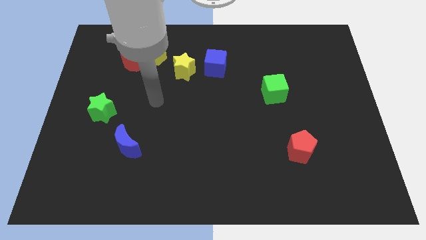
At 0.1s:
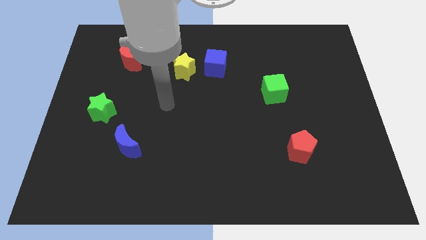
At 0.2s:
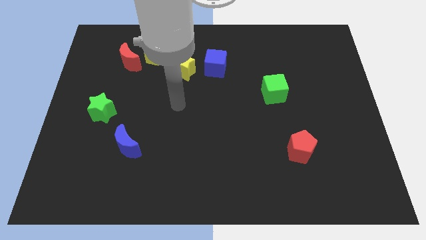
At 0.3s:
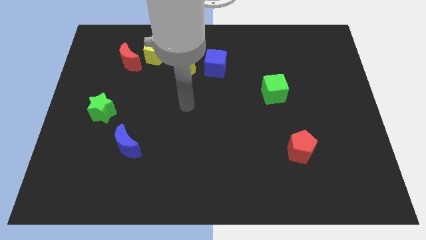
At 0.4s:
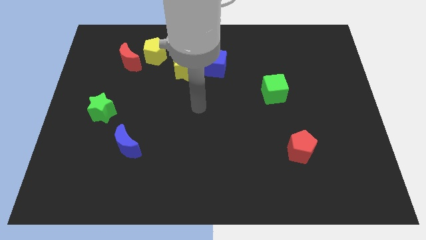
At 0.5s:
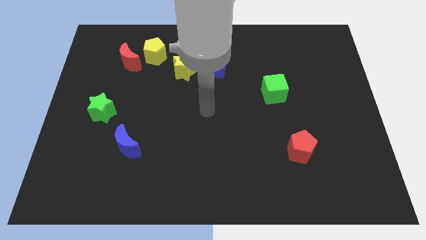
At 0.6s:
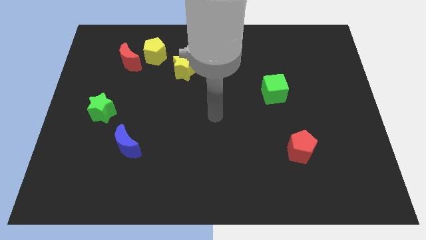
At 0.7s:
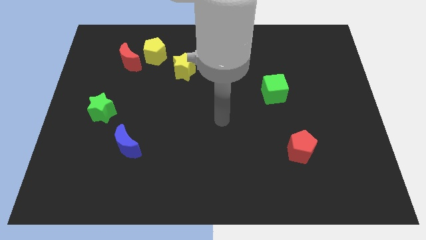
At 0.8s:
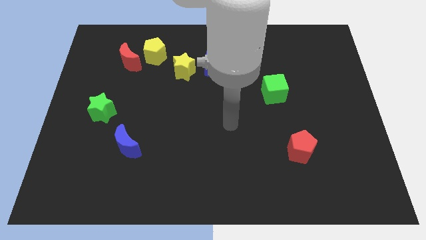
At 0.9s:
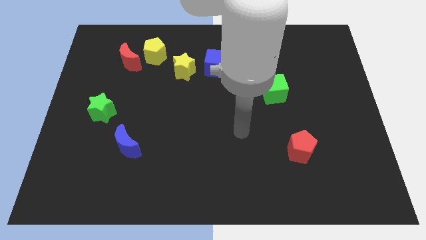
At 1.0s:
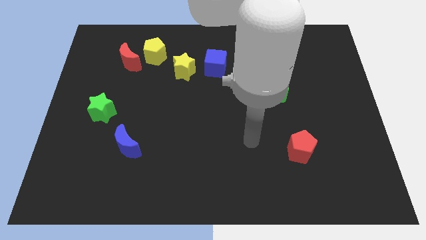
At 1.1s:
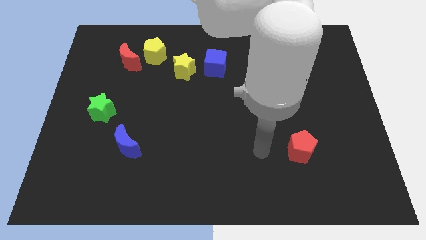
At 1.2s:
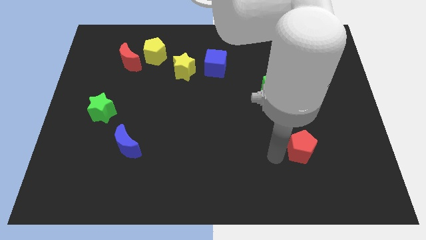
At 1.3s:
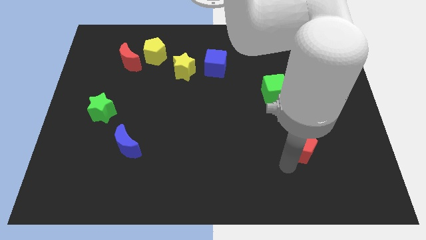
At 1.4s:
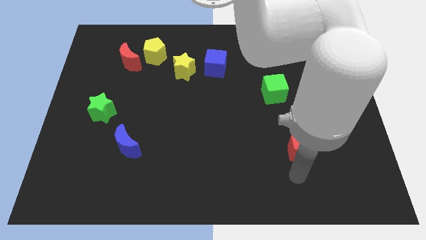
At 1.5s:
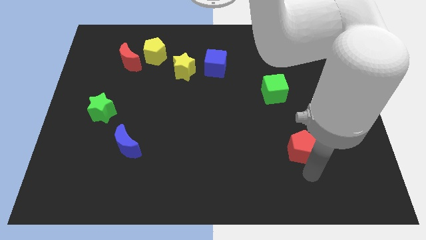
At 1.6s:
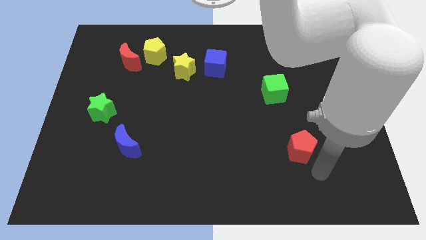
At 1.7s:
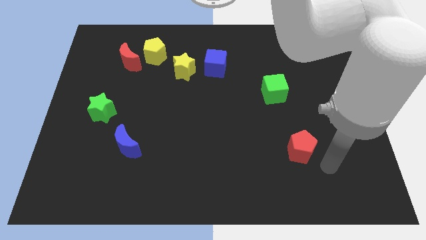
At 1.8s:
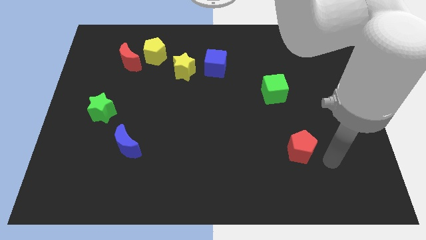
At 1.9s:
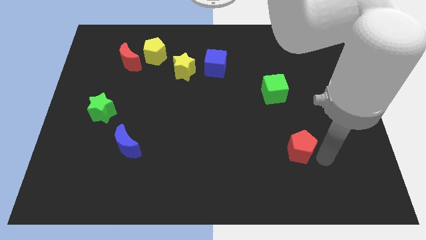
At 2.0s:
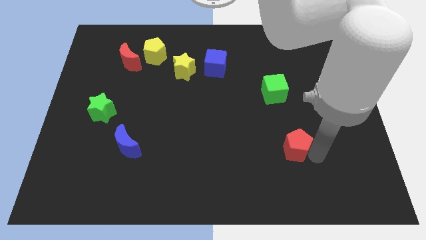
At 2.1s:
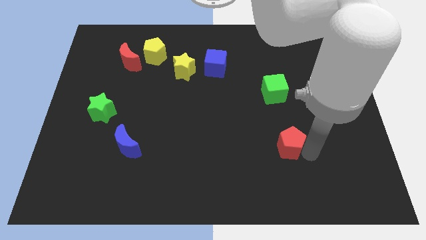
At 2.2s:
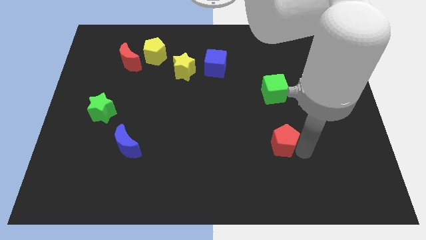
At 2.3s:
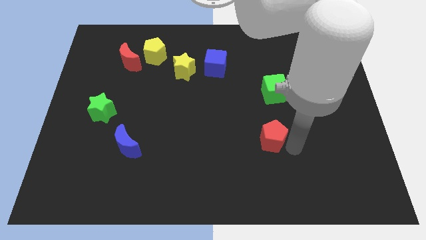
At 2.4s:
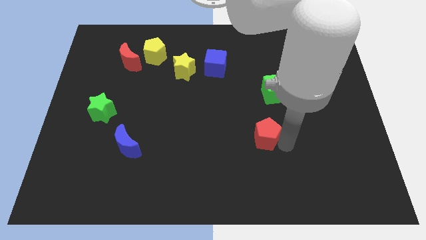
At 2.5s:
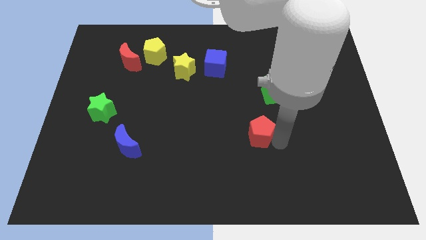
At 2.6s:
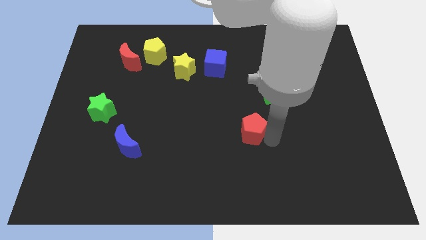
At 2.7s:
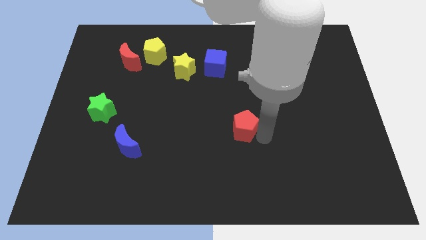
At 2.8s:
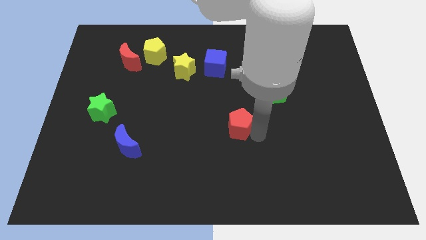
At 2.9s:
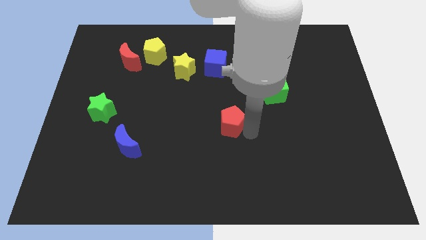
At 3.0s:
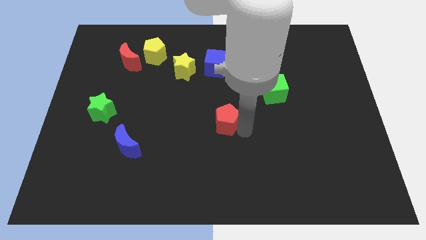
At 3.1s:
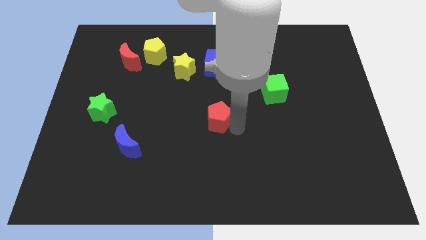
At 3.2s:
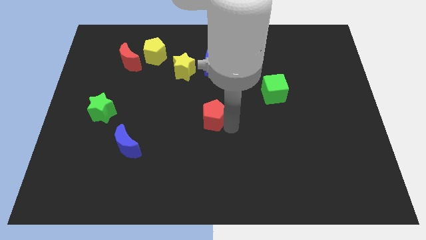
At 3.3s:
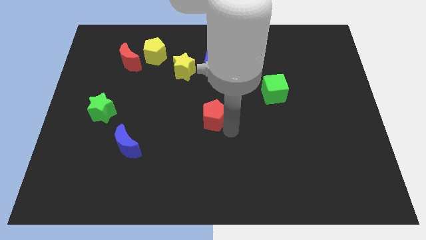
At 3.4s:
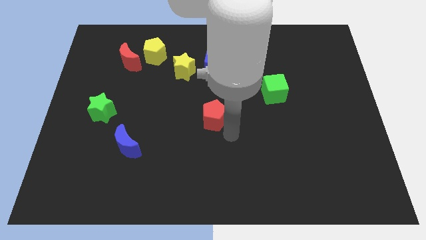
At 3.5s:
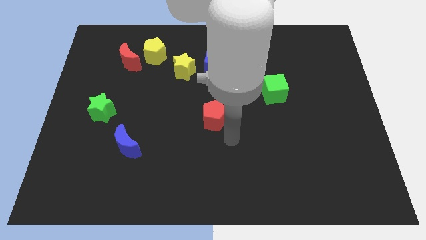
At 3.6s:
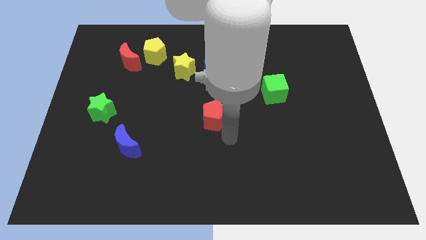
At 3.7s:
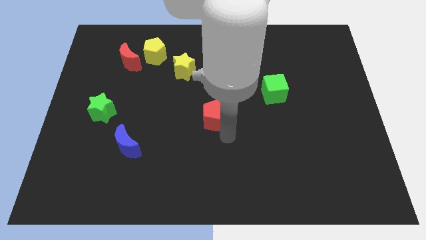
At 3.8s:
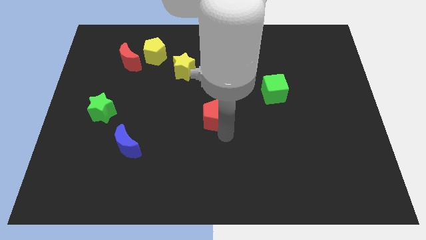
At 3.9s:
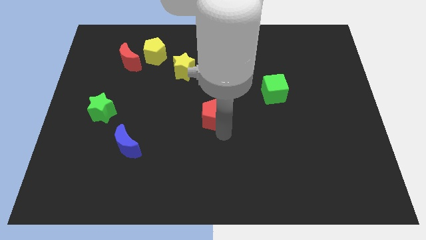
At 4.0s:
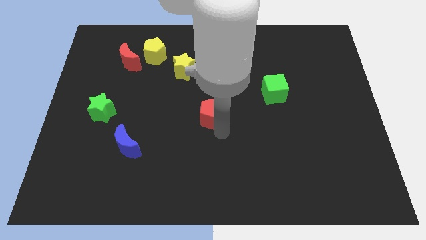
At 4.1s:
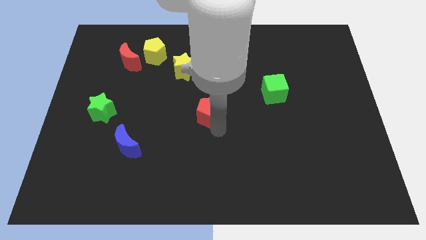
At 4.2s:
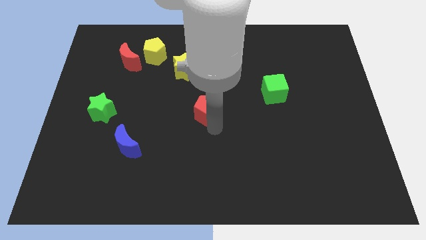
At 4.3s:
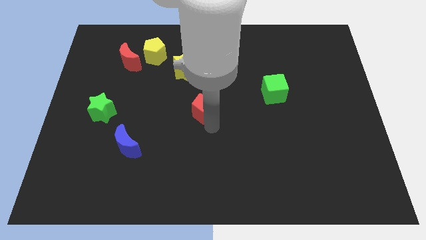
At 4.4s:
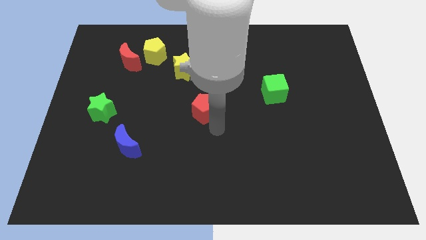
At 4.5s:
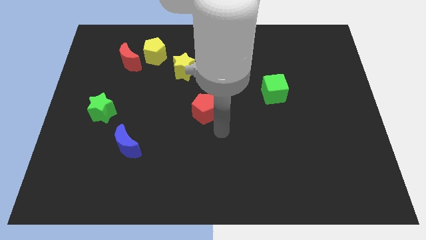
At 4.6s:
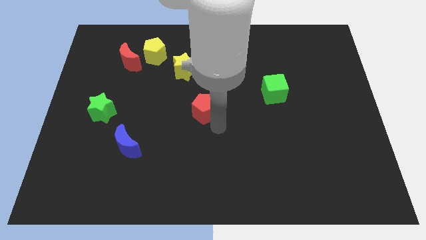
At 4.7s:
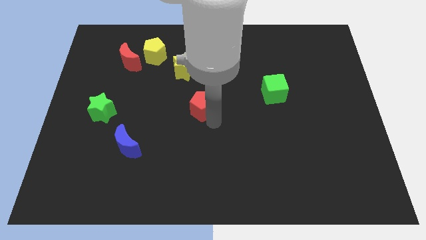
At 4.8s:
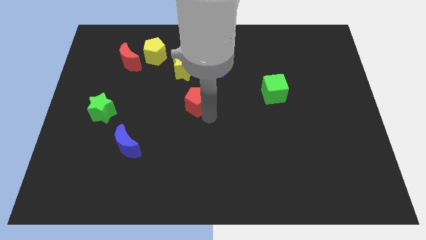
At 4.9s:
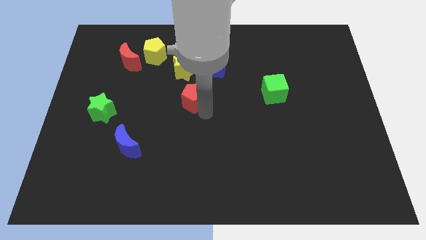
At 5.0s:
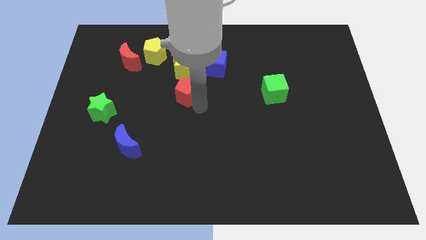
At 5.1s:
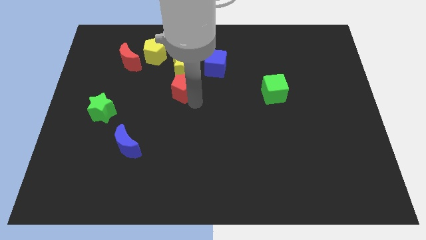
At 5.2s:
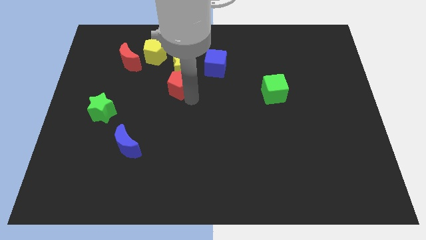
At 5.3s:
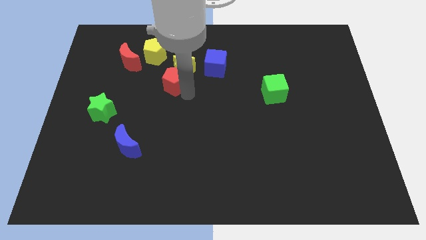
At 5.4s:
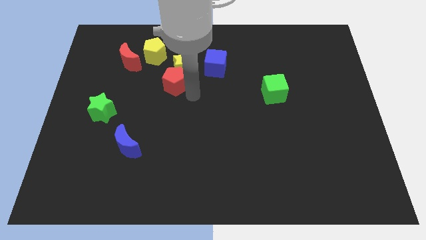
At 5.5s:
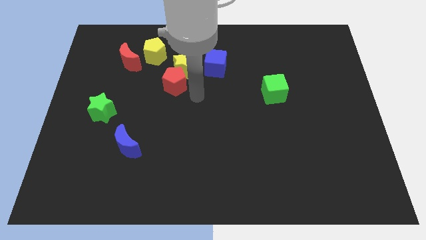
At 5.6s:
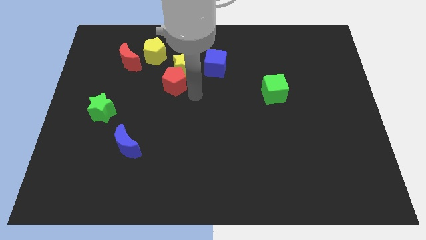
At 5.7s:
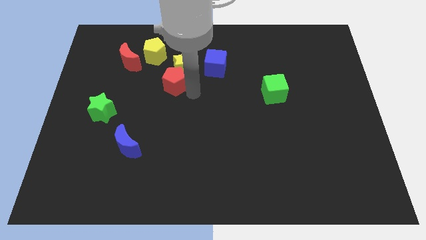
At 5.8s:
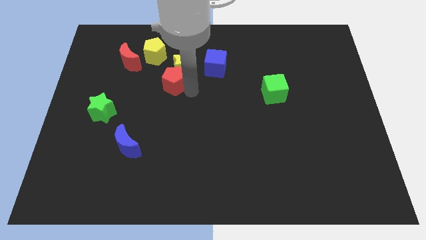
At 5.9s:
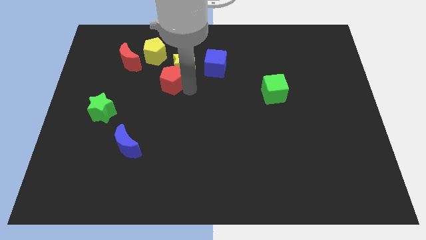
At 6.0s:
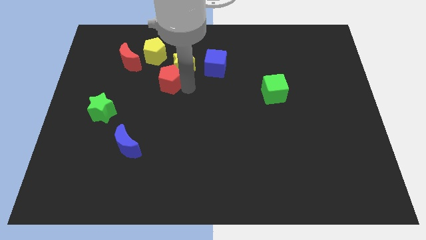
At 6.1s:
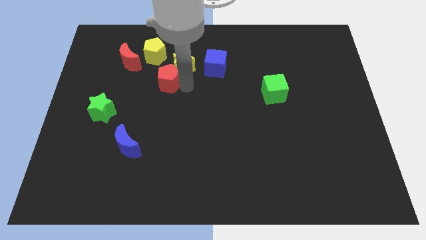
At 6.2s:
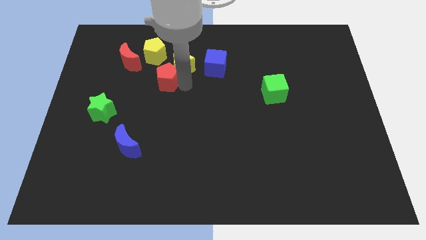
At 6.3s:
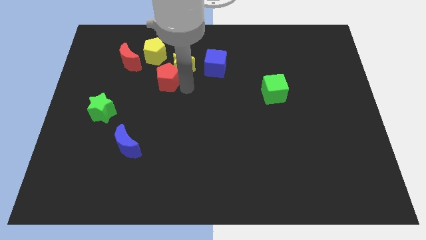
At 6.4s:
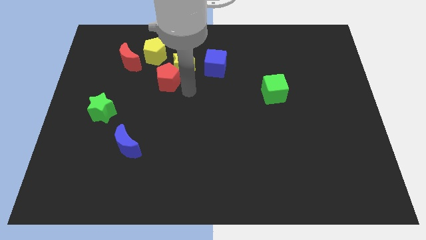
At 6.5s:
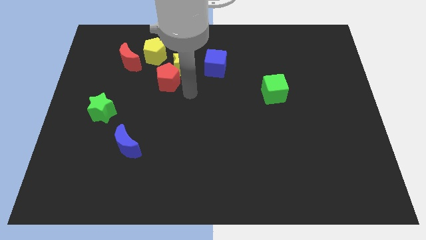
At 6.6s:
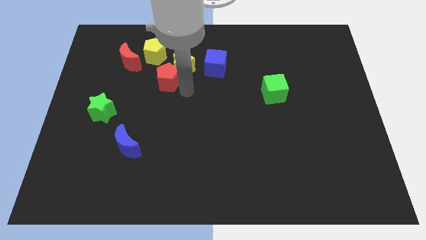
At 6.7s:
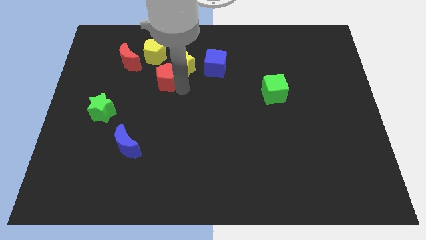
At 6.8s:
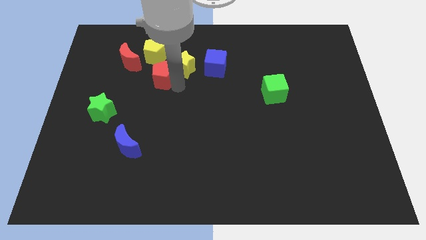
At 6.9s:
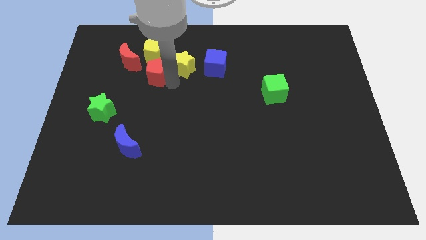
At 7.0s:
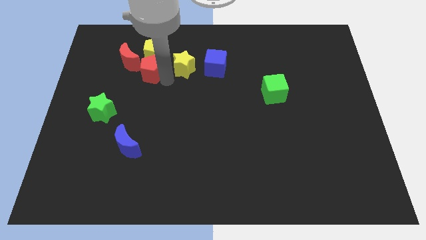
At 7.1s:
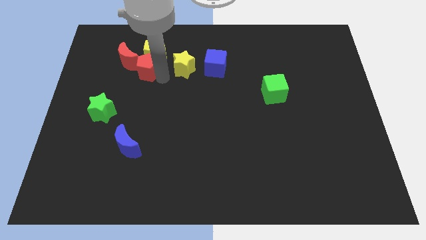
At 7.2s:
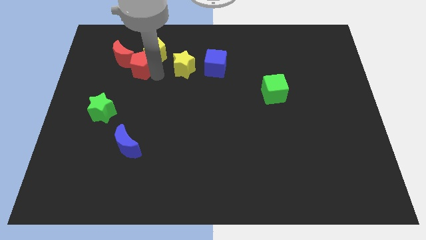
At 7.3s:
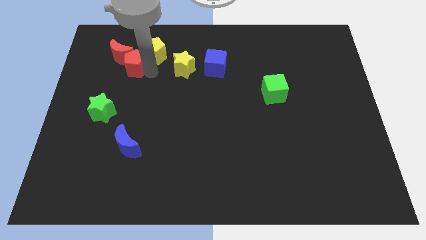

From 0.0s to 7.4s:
move the red pentagon towards the red moon

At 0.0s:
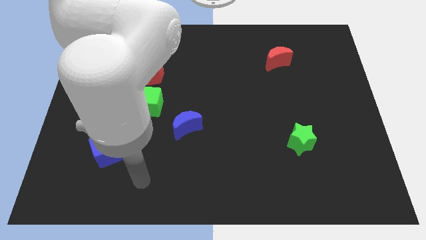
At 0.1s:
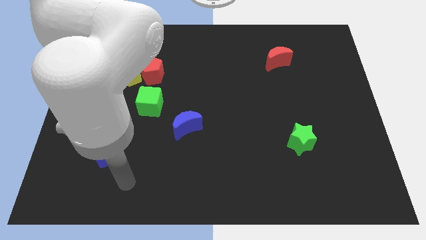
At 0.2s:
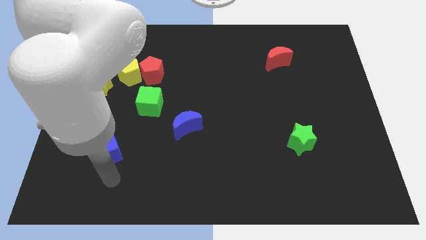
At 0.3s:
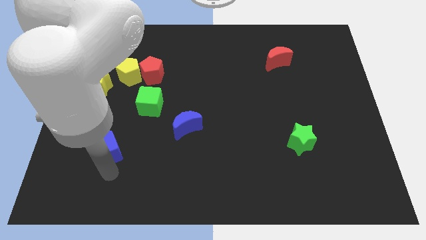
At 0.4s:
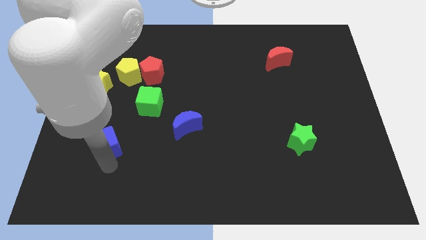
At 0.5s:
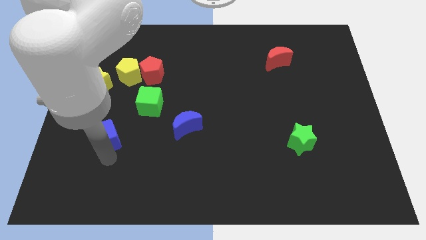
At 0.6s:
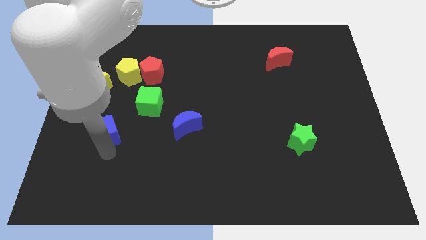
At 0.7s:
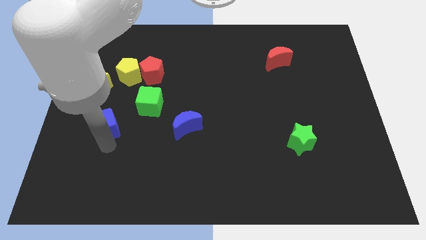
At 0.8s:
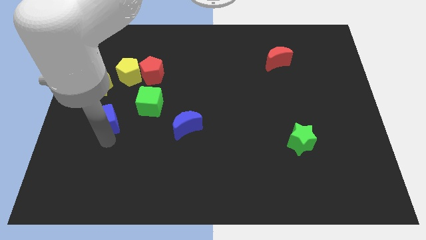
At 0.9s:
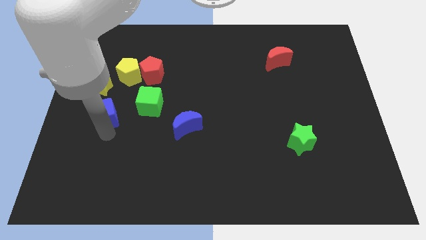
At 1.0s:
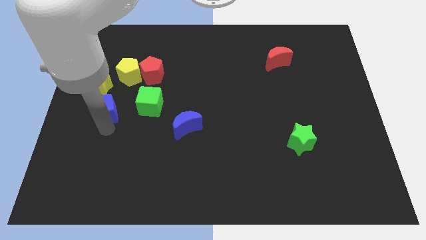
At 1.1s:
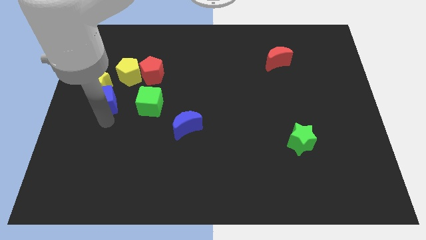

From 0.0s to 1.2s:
put the blue cube close to the yellow star
